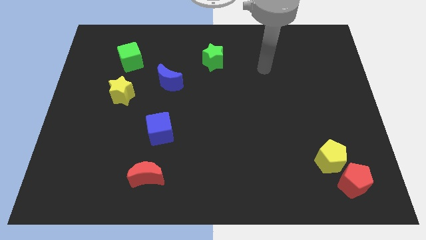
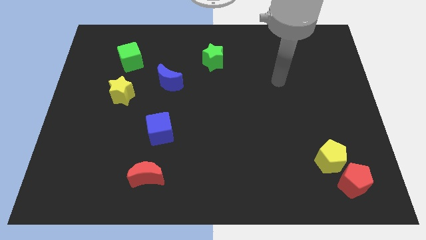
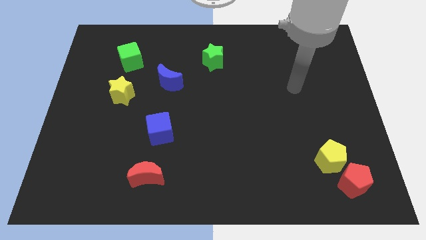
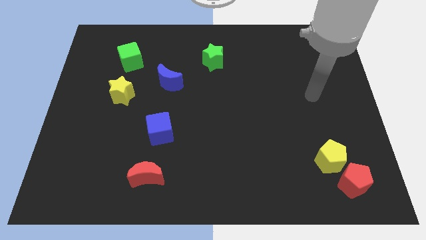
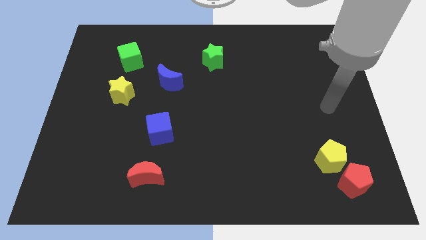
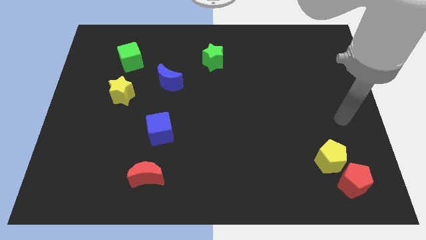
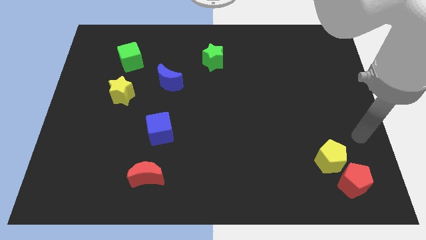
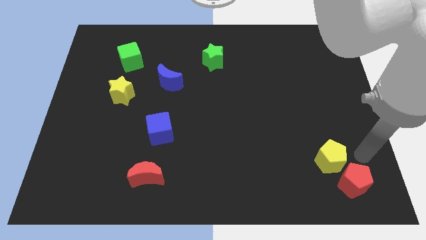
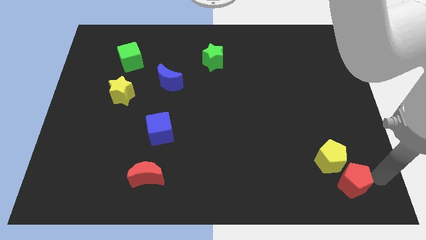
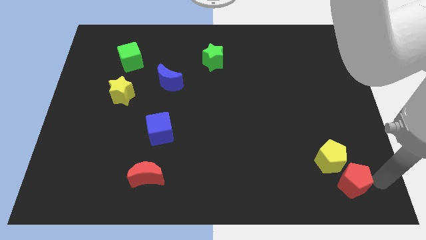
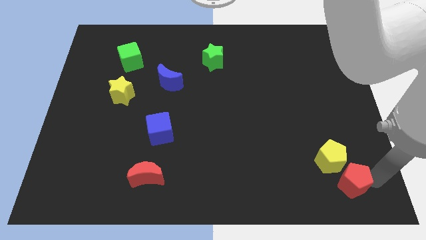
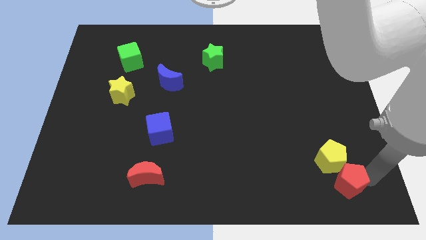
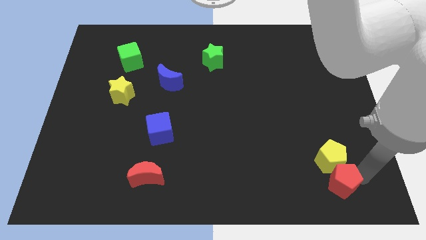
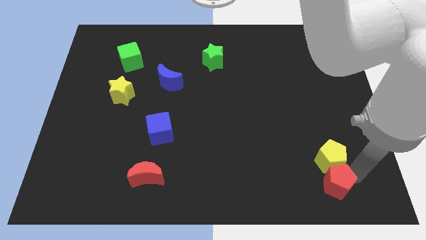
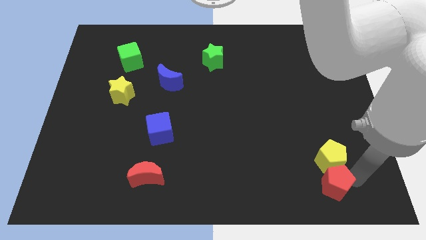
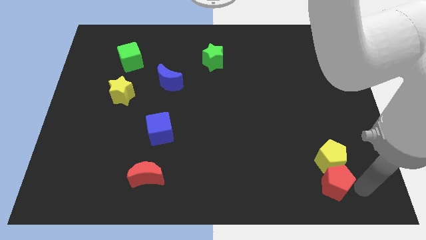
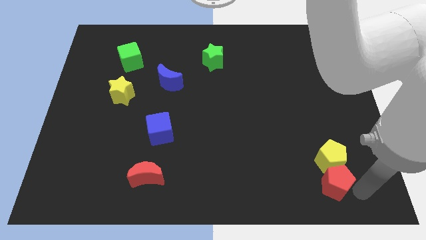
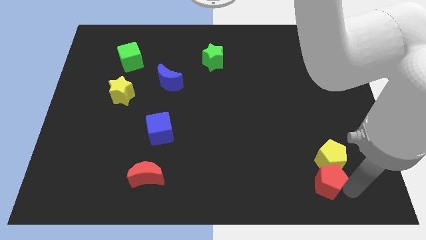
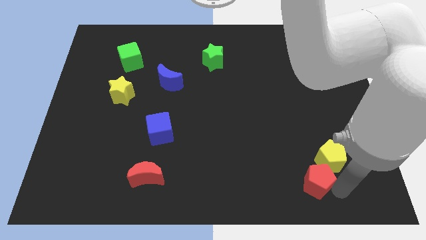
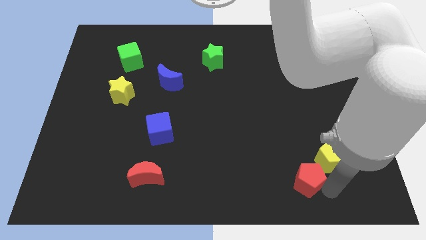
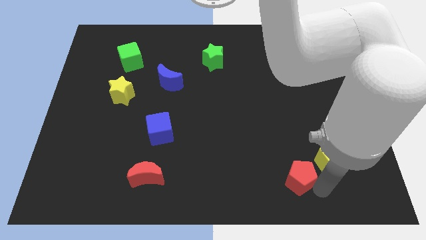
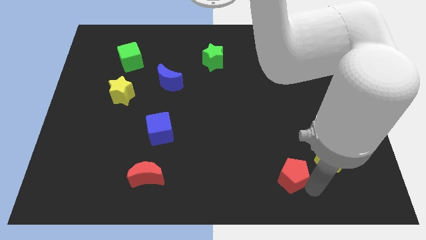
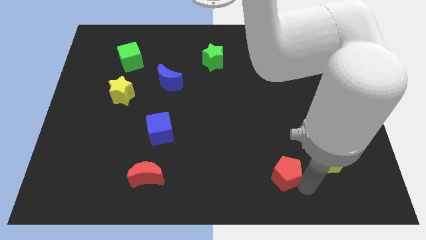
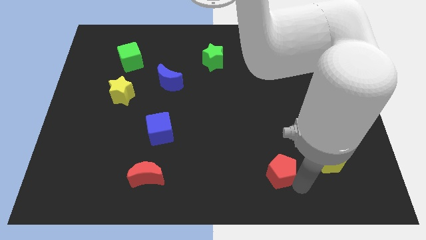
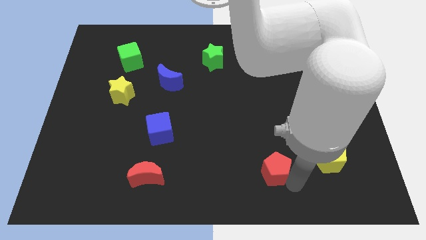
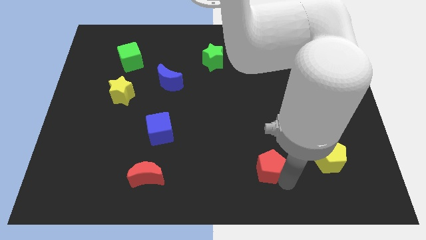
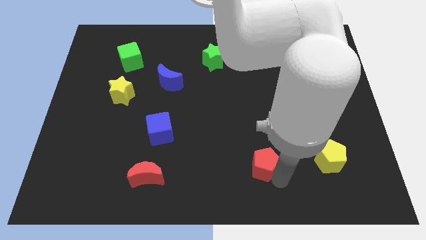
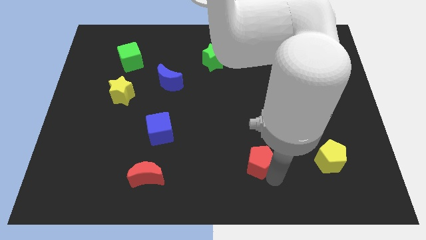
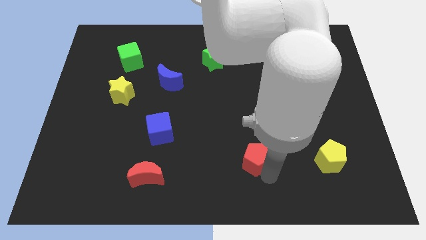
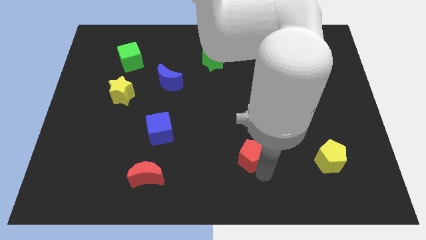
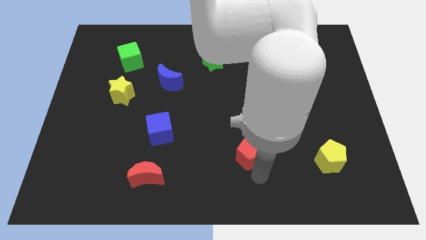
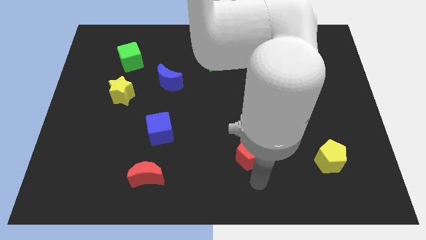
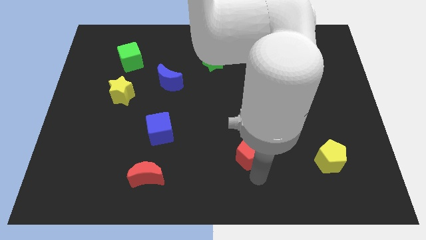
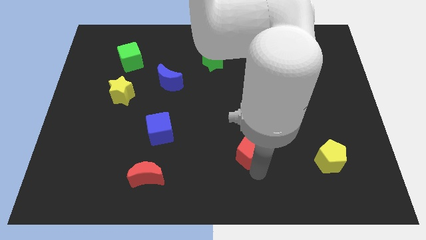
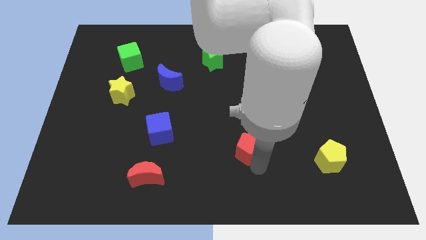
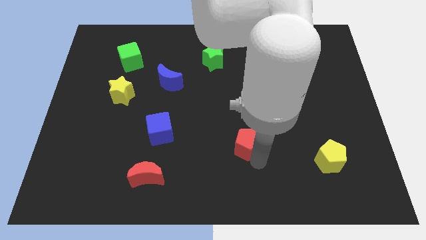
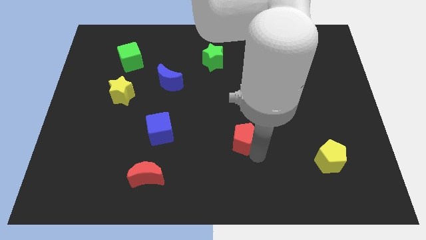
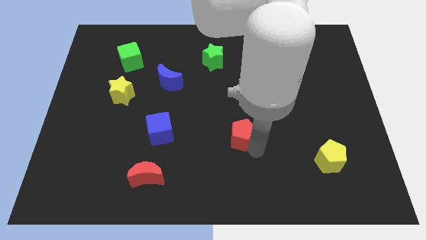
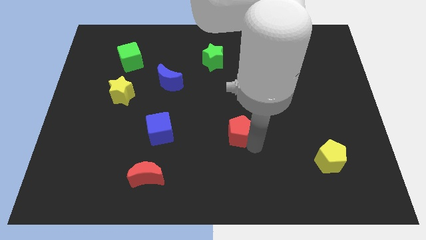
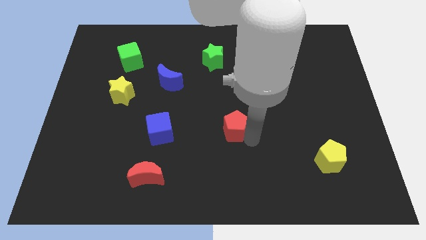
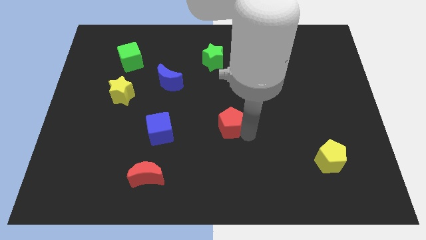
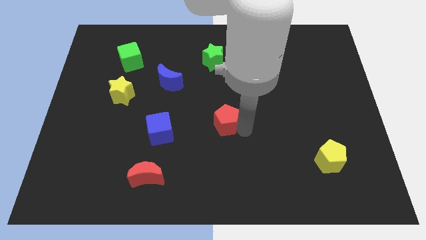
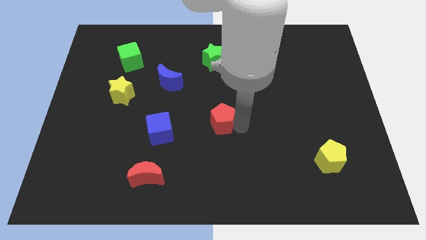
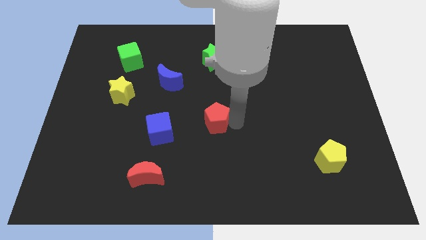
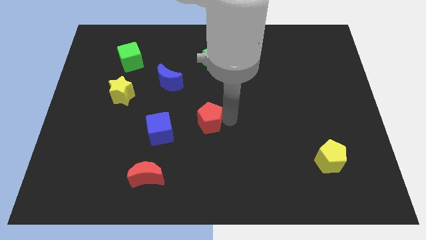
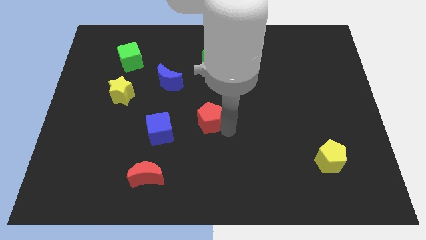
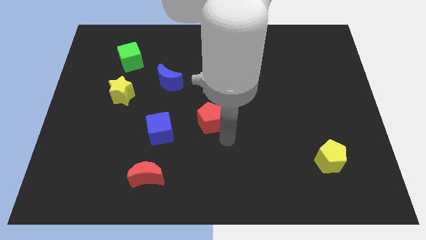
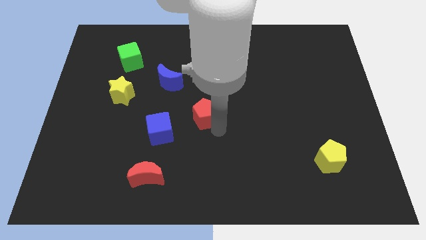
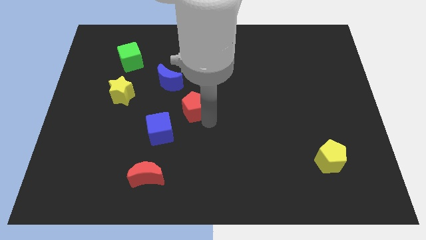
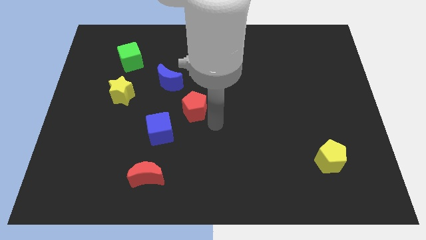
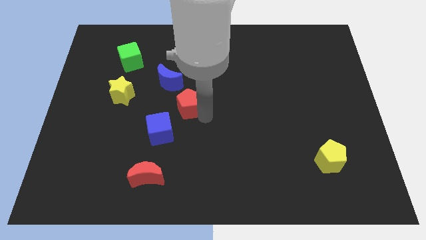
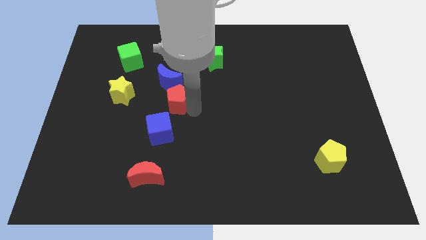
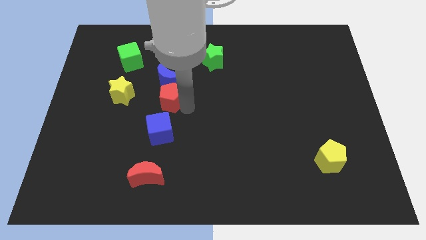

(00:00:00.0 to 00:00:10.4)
move the red pentagon next to the blue moon

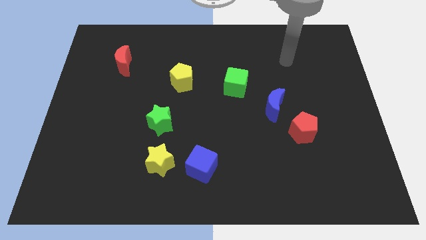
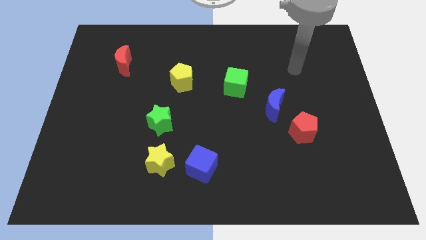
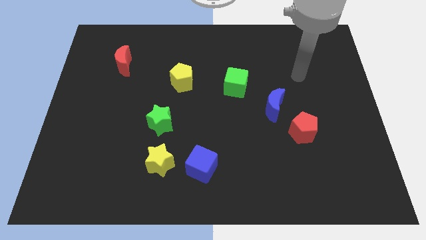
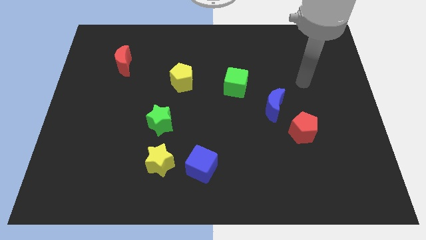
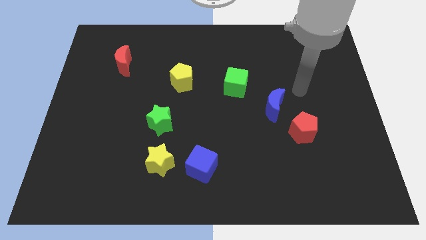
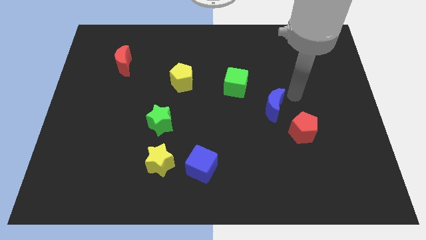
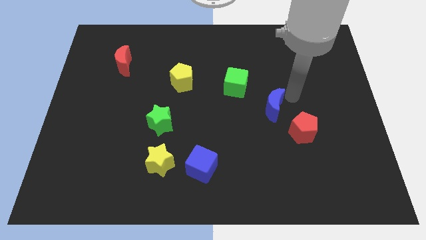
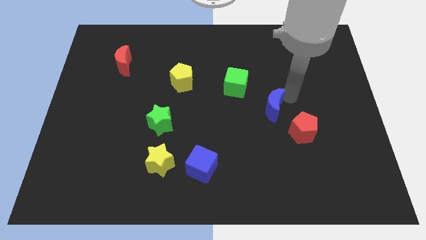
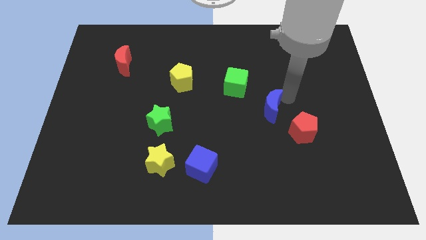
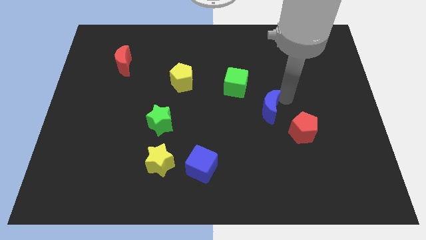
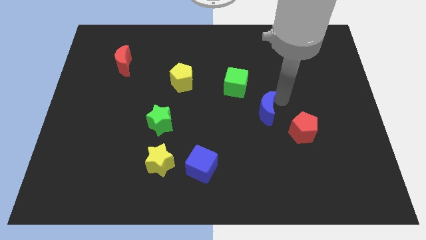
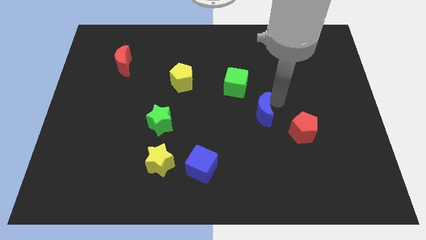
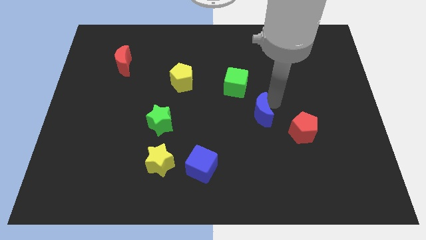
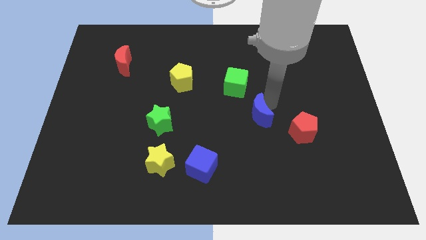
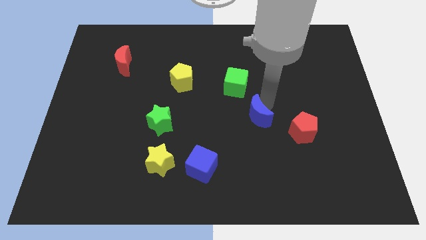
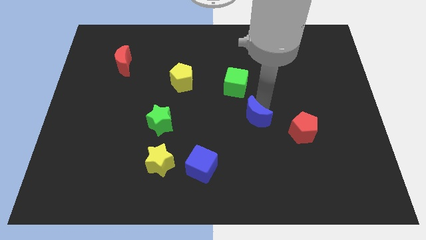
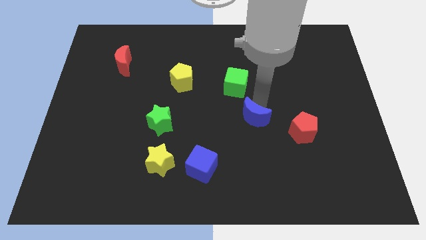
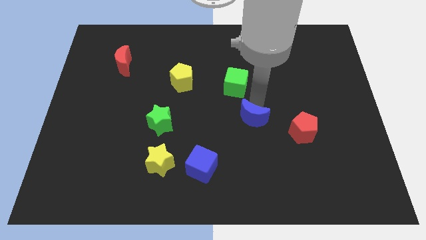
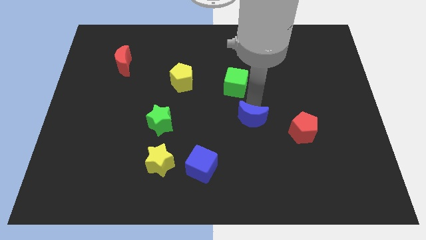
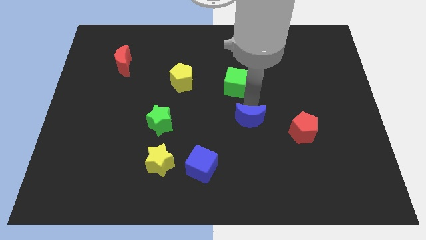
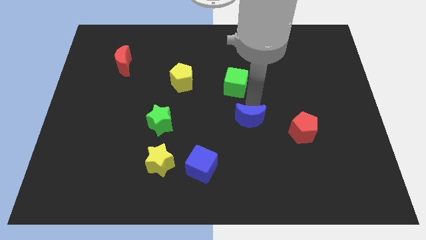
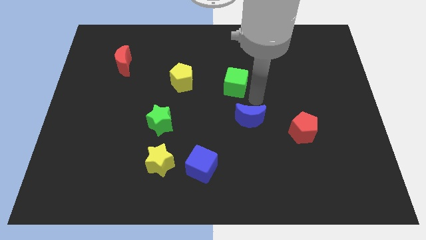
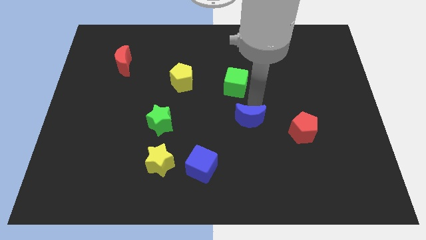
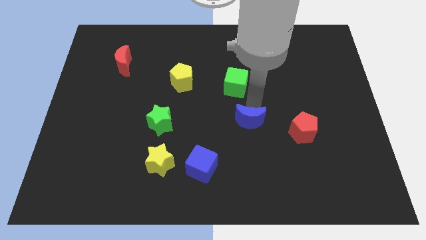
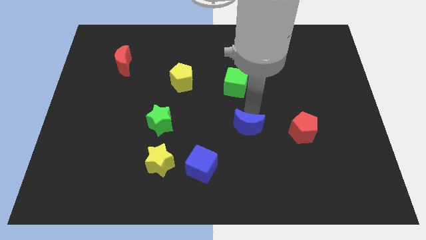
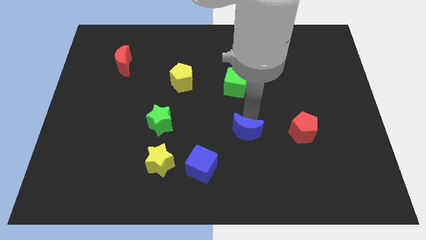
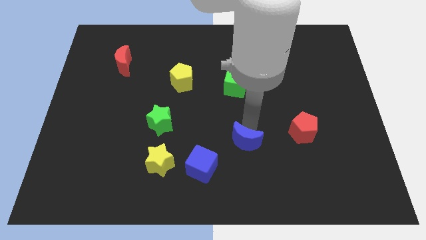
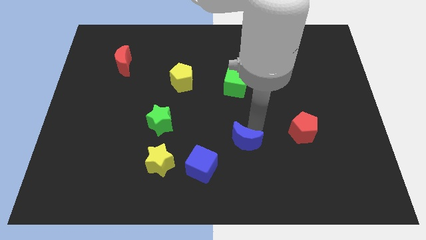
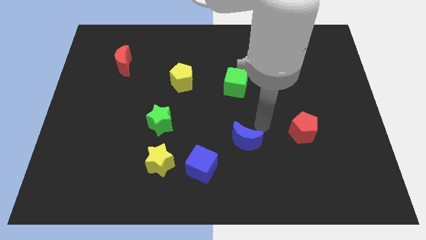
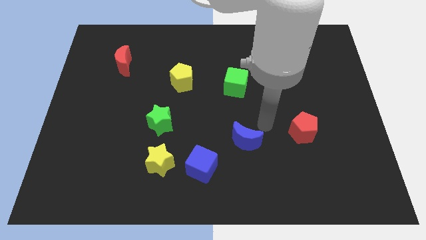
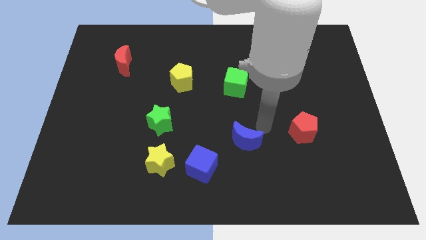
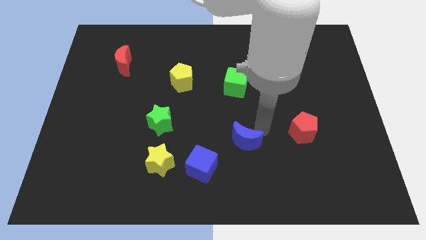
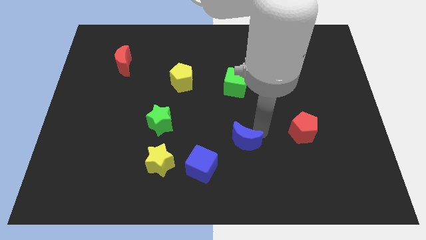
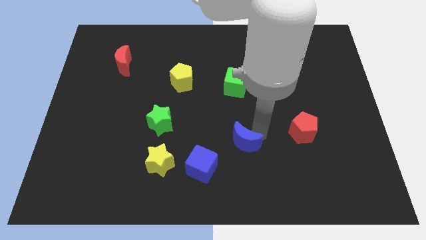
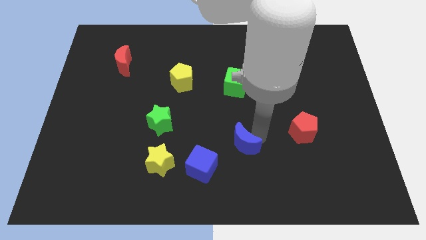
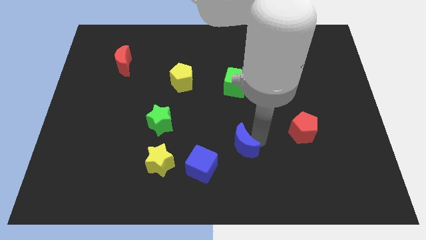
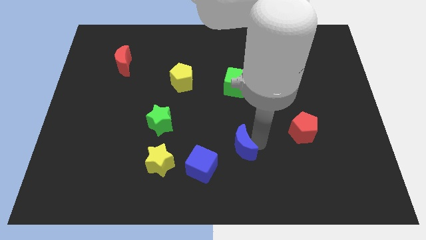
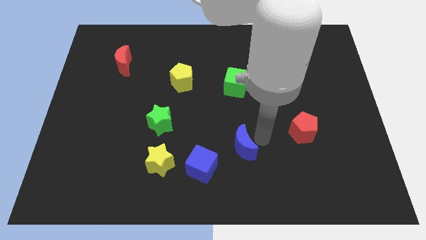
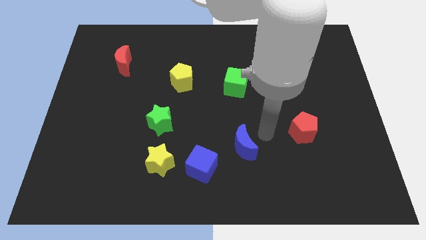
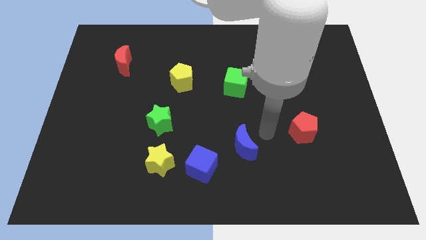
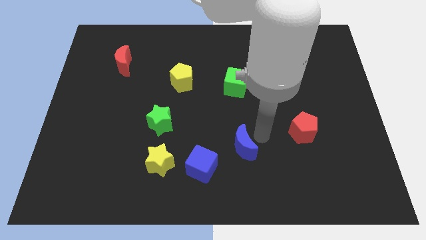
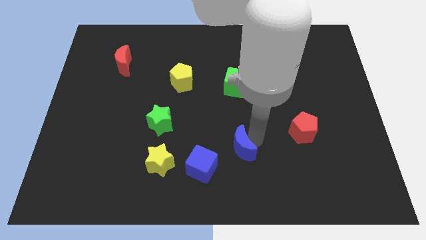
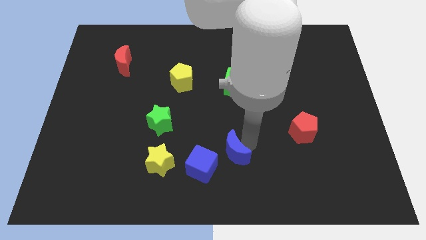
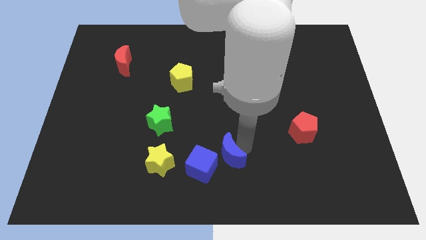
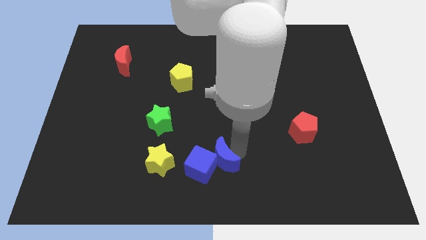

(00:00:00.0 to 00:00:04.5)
slide the blue moon towards the blue cube
